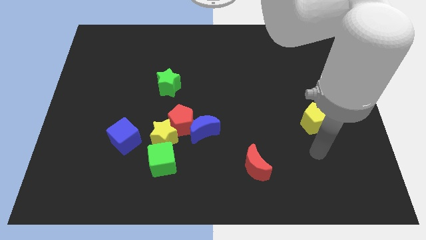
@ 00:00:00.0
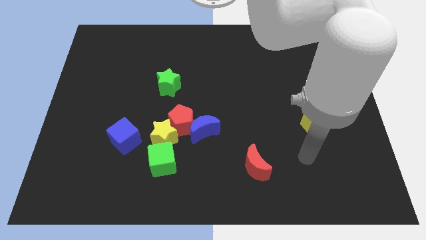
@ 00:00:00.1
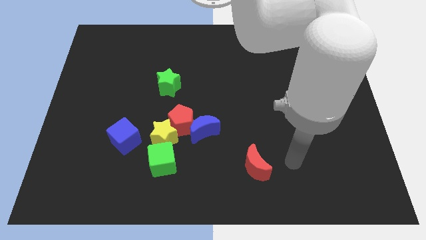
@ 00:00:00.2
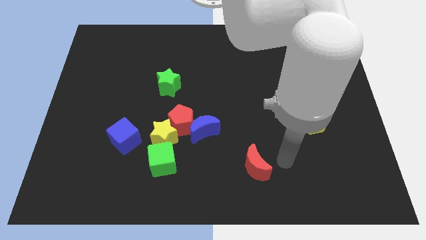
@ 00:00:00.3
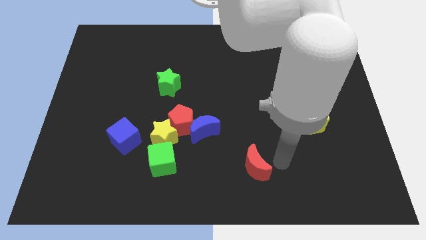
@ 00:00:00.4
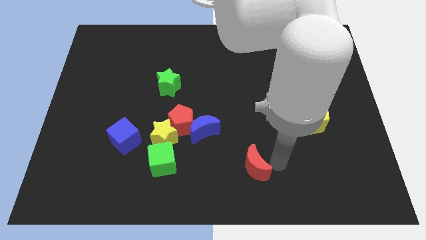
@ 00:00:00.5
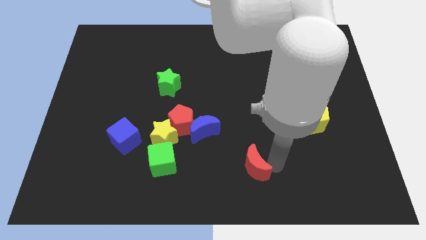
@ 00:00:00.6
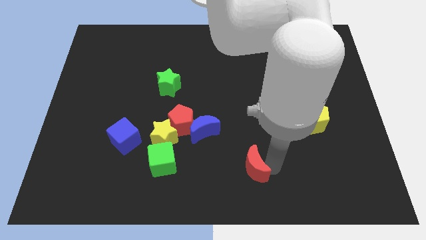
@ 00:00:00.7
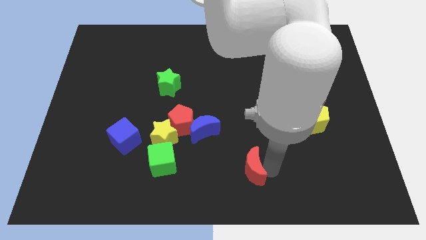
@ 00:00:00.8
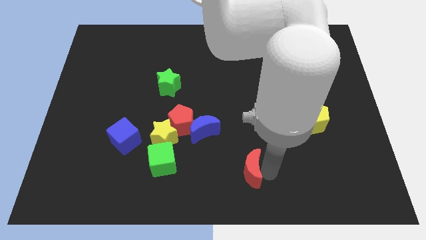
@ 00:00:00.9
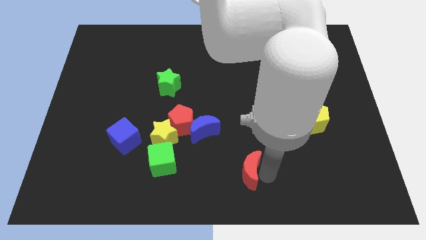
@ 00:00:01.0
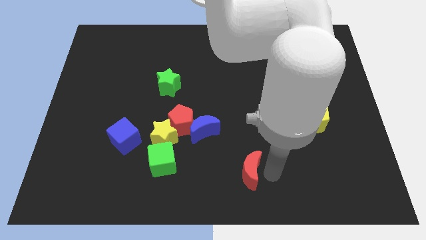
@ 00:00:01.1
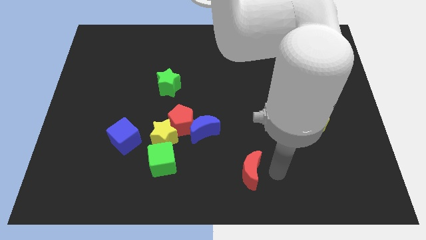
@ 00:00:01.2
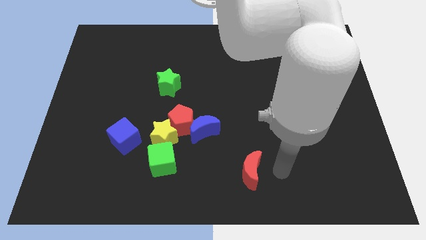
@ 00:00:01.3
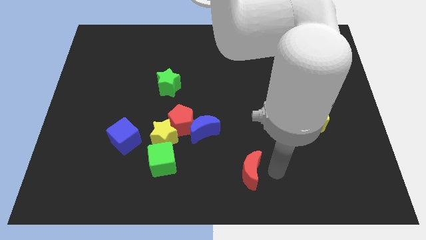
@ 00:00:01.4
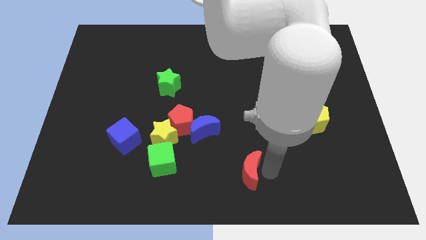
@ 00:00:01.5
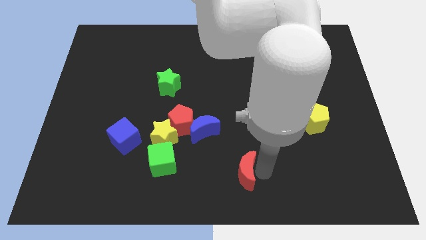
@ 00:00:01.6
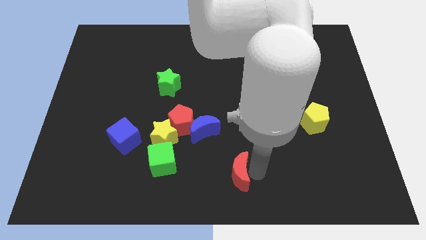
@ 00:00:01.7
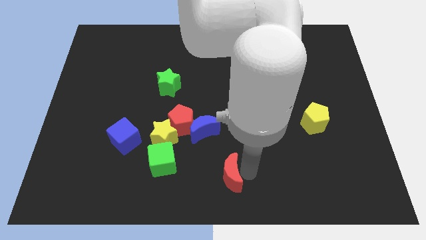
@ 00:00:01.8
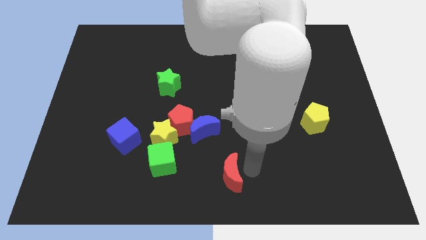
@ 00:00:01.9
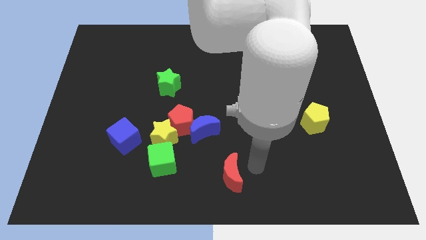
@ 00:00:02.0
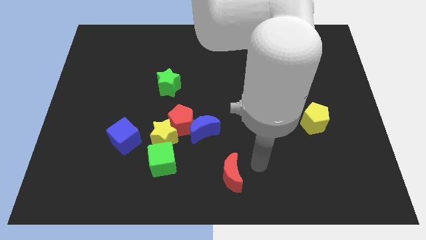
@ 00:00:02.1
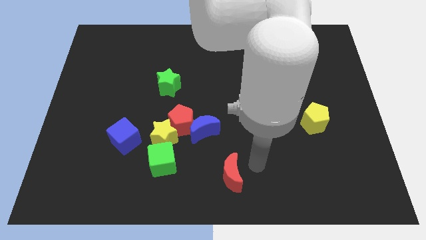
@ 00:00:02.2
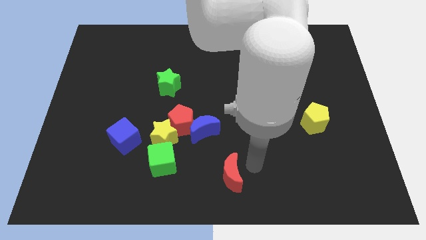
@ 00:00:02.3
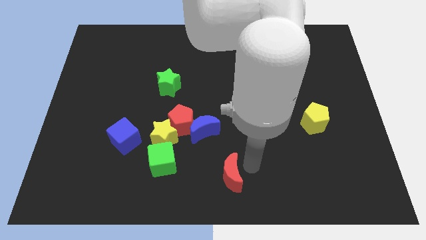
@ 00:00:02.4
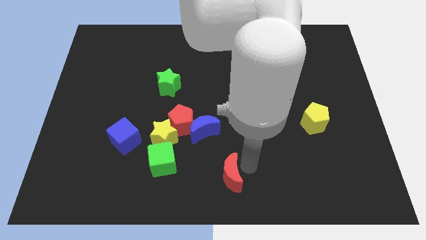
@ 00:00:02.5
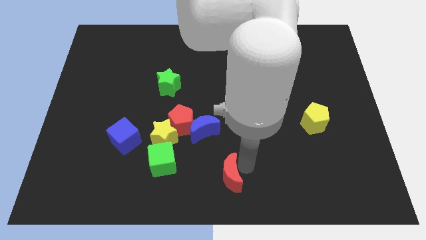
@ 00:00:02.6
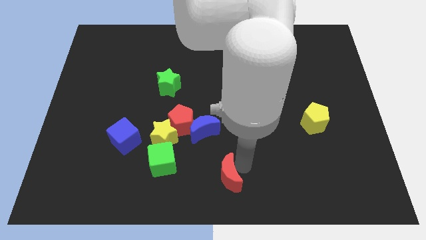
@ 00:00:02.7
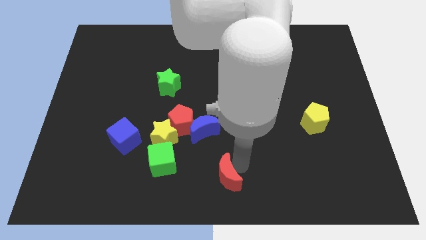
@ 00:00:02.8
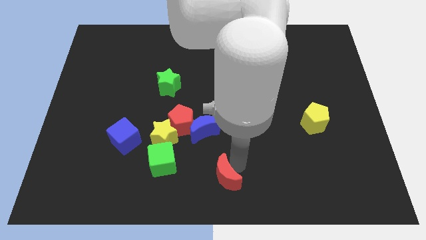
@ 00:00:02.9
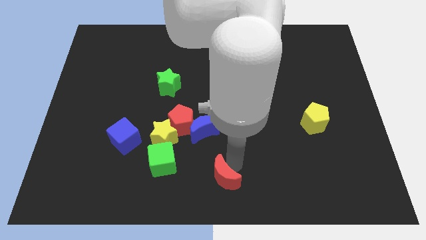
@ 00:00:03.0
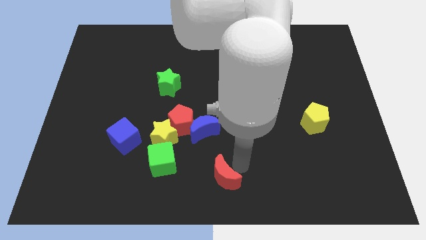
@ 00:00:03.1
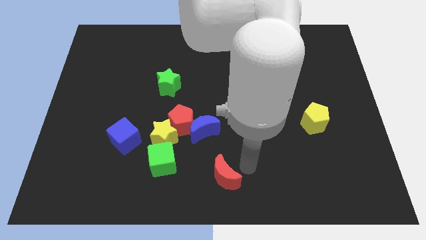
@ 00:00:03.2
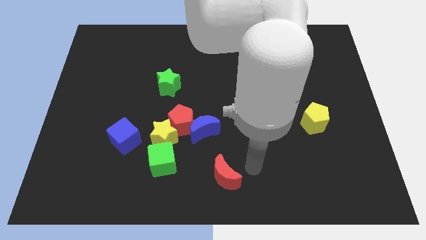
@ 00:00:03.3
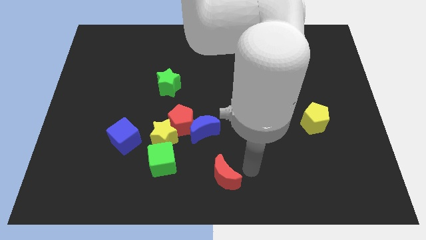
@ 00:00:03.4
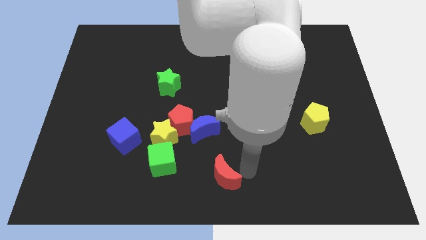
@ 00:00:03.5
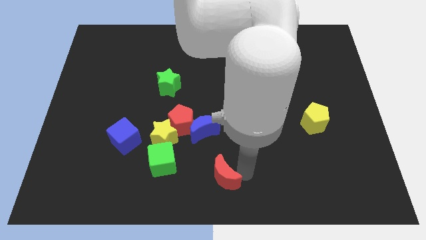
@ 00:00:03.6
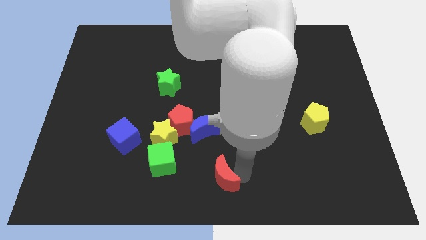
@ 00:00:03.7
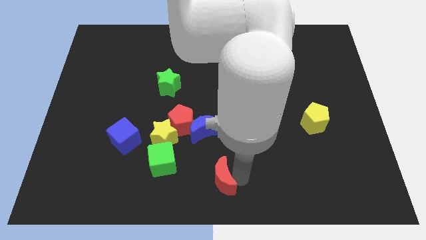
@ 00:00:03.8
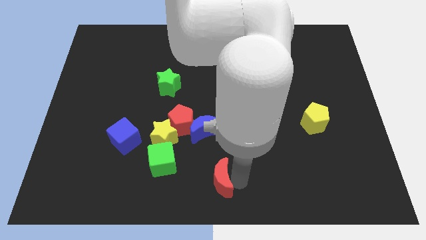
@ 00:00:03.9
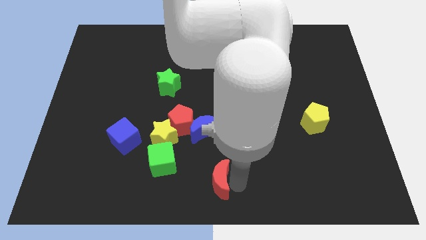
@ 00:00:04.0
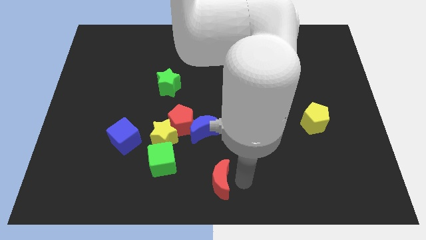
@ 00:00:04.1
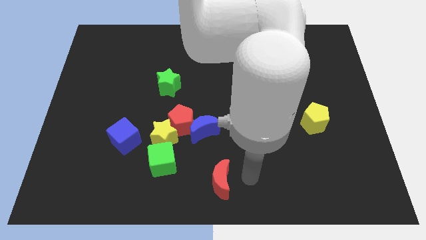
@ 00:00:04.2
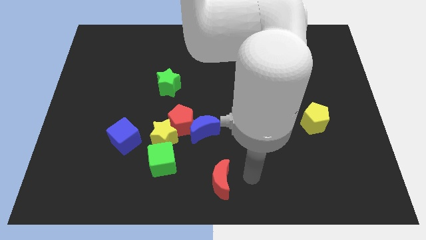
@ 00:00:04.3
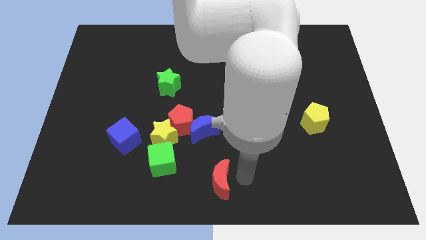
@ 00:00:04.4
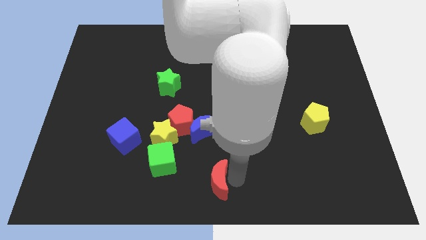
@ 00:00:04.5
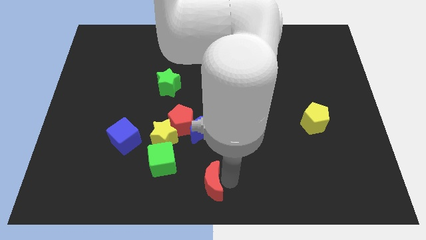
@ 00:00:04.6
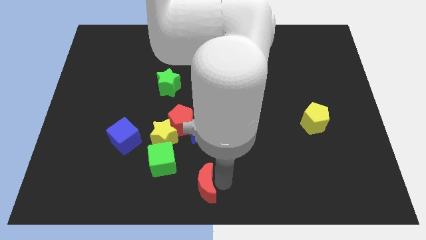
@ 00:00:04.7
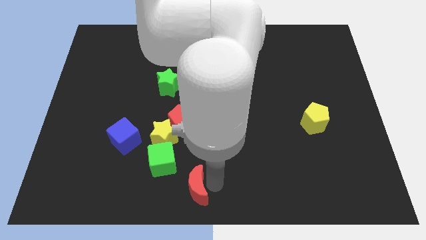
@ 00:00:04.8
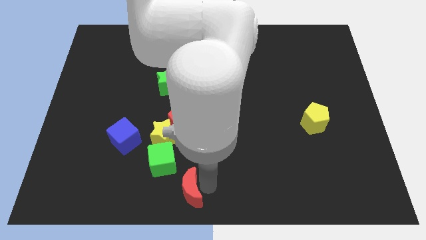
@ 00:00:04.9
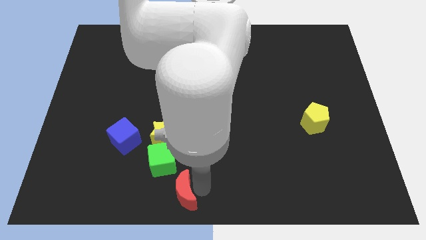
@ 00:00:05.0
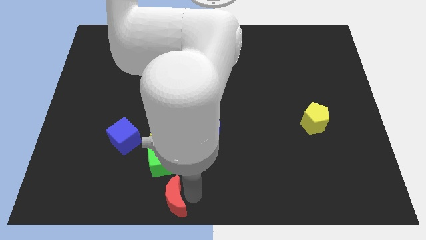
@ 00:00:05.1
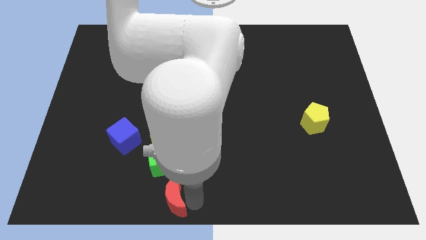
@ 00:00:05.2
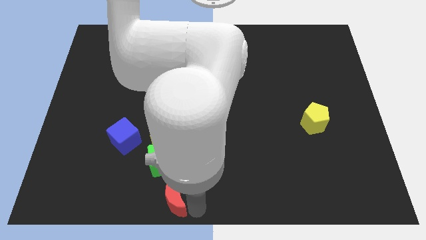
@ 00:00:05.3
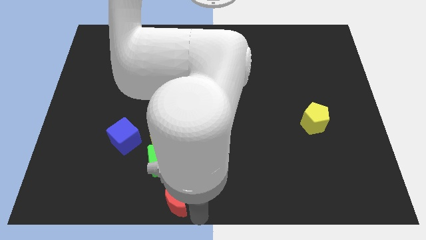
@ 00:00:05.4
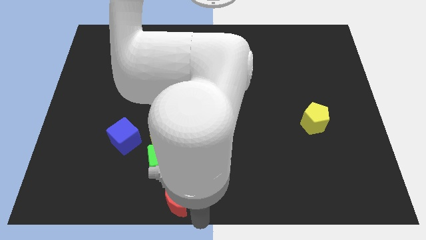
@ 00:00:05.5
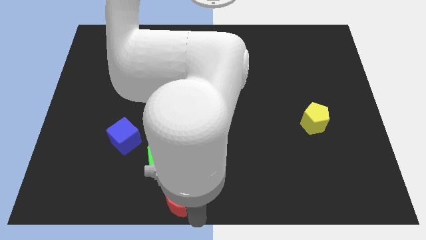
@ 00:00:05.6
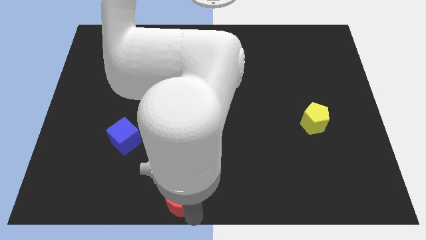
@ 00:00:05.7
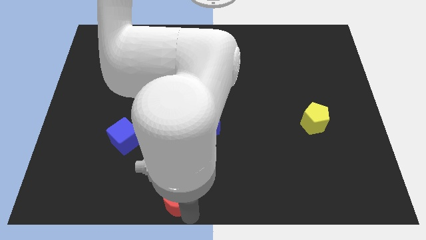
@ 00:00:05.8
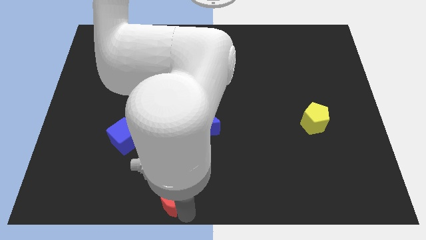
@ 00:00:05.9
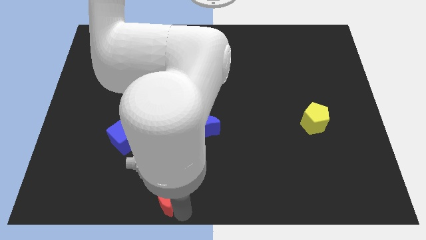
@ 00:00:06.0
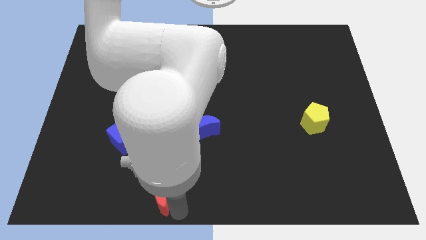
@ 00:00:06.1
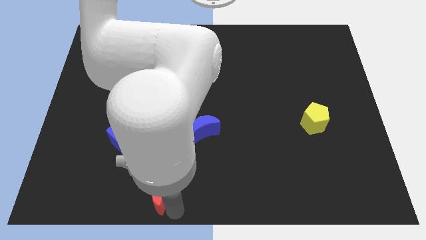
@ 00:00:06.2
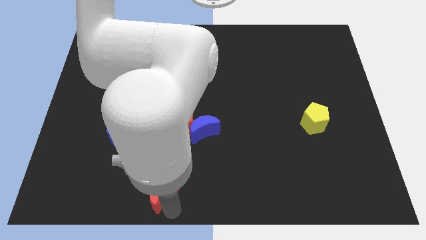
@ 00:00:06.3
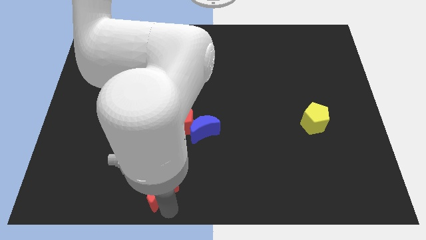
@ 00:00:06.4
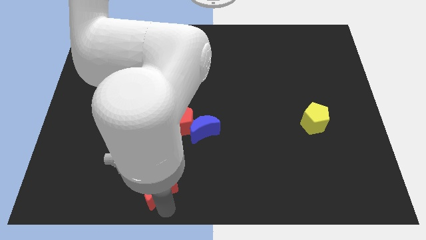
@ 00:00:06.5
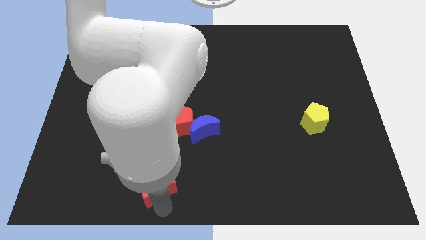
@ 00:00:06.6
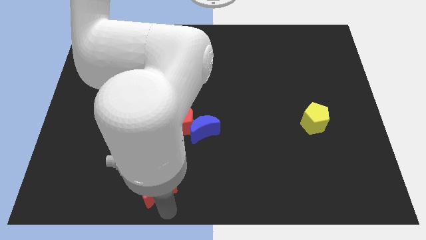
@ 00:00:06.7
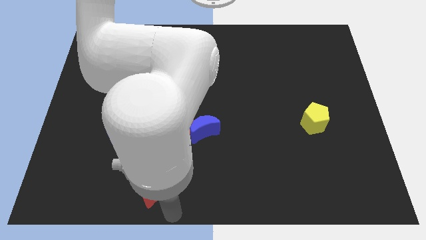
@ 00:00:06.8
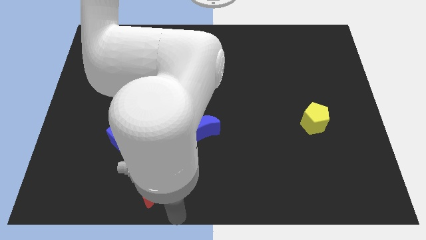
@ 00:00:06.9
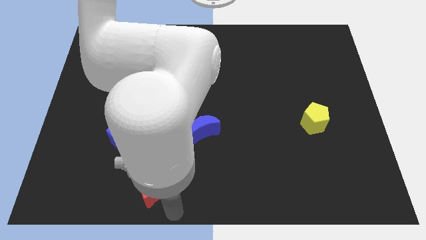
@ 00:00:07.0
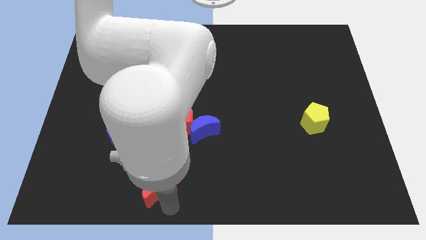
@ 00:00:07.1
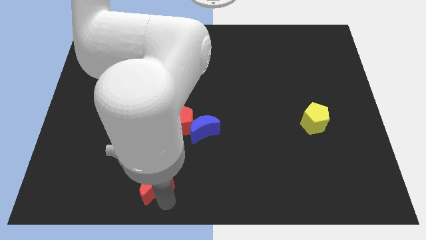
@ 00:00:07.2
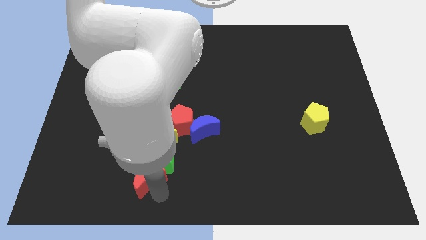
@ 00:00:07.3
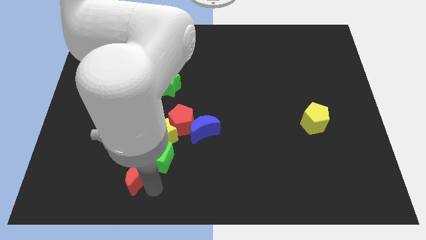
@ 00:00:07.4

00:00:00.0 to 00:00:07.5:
put the red moon to the bottom left side of the yellow star
